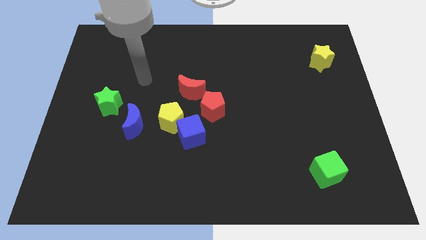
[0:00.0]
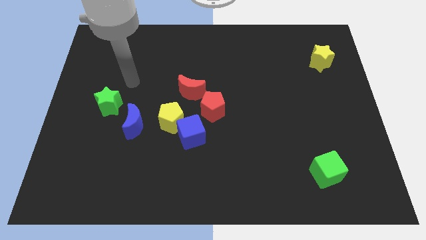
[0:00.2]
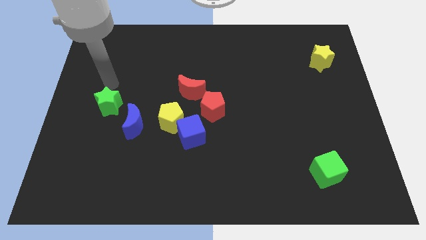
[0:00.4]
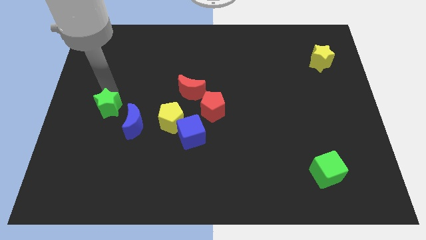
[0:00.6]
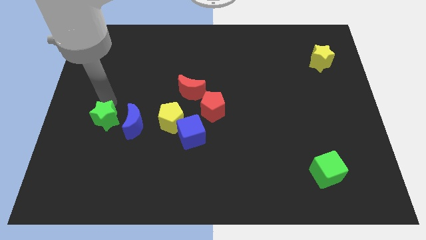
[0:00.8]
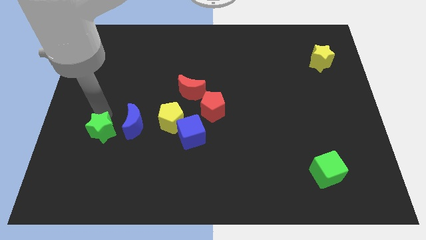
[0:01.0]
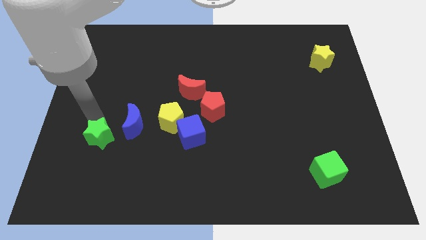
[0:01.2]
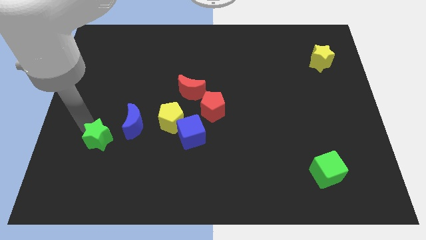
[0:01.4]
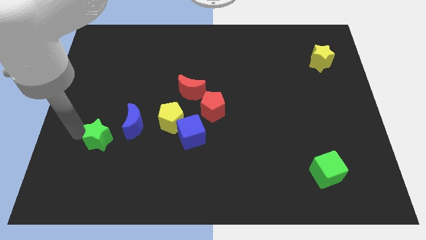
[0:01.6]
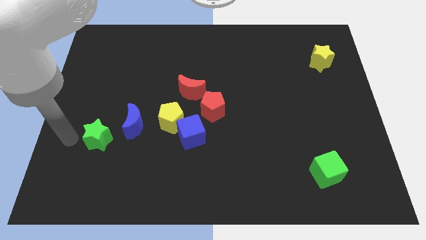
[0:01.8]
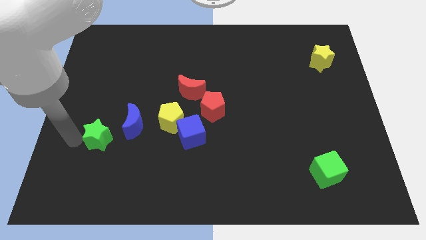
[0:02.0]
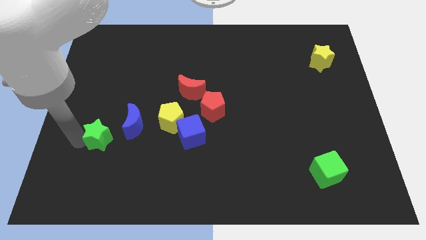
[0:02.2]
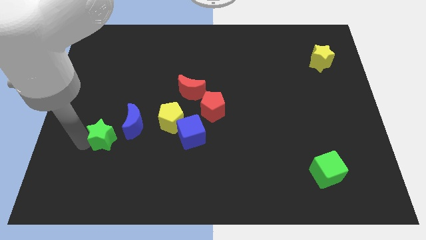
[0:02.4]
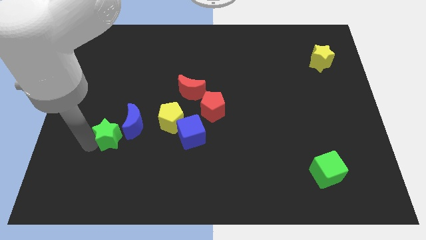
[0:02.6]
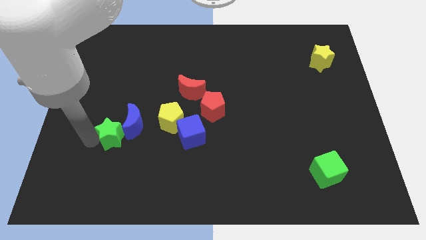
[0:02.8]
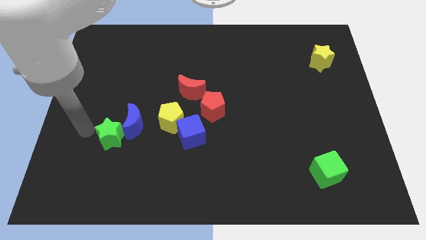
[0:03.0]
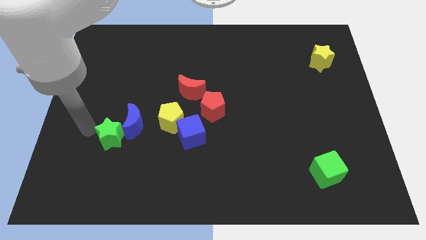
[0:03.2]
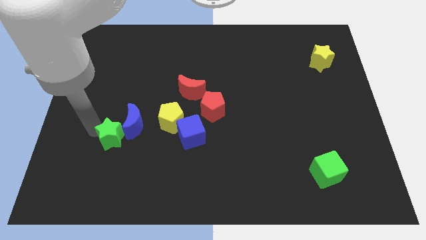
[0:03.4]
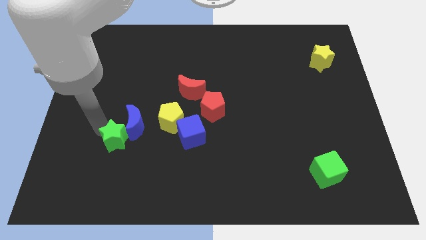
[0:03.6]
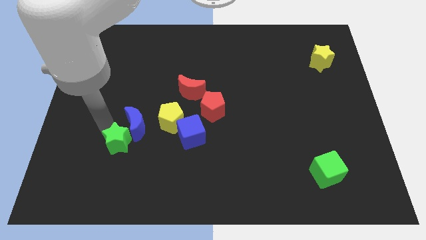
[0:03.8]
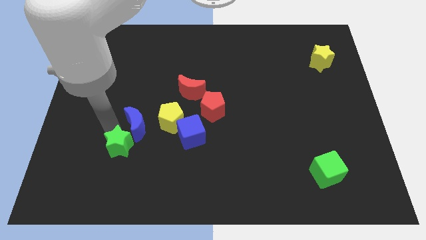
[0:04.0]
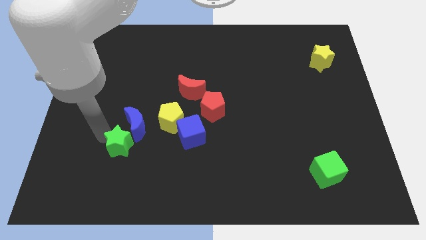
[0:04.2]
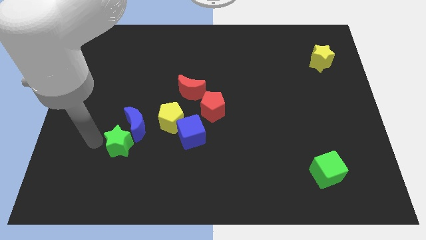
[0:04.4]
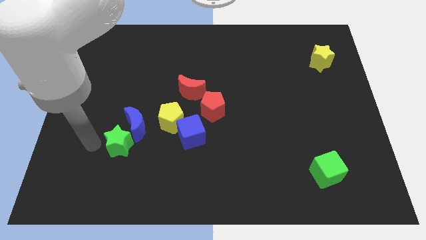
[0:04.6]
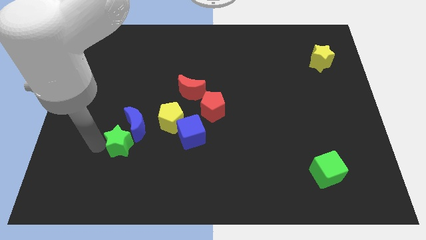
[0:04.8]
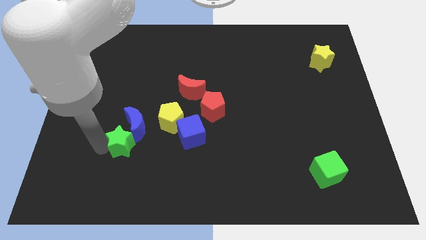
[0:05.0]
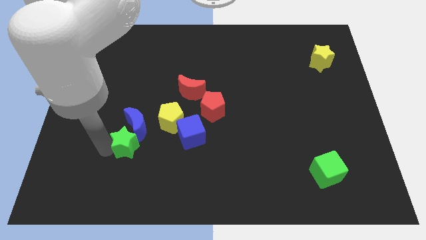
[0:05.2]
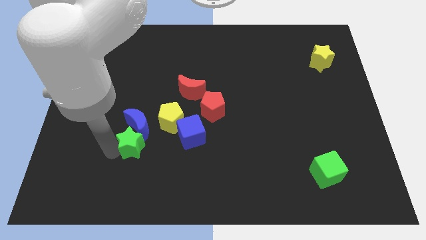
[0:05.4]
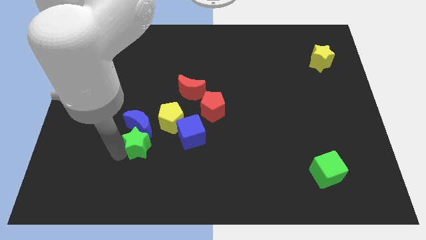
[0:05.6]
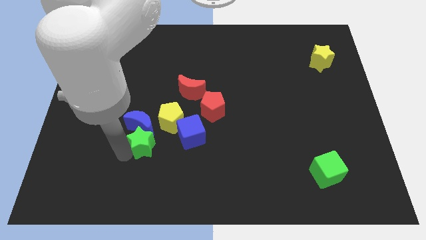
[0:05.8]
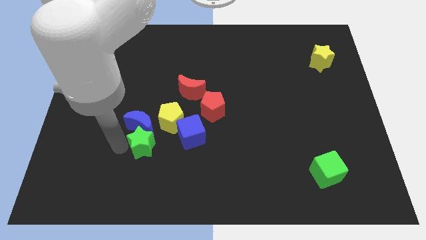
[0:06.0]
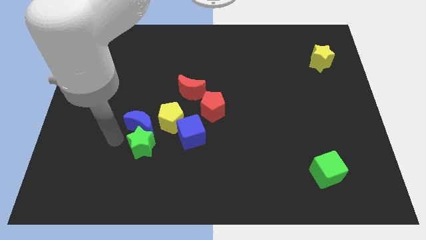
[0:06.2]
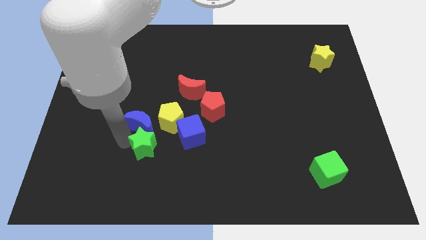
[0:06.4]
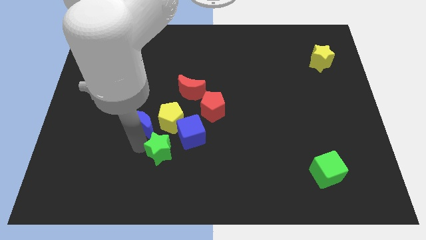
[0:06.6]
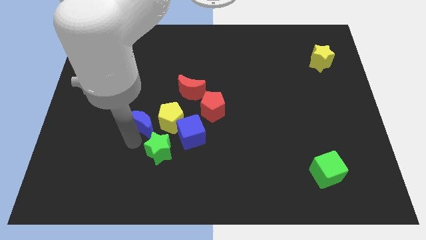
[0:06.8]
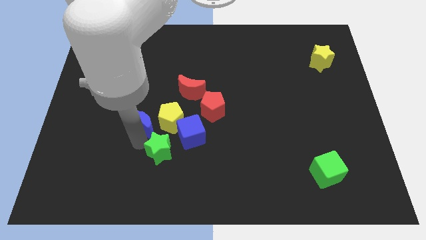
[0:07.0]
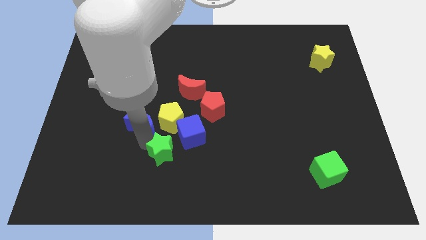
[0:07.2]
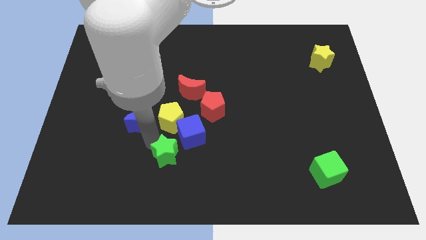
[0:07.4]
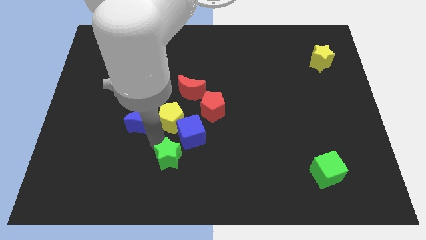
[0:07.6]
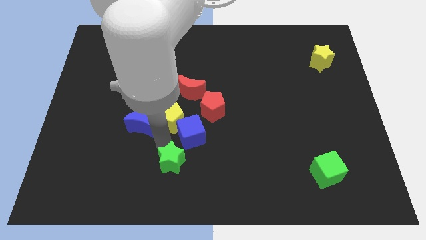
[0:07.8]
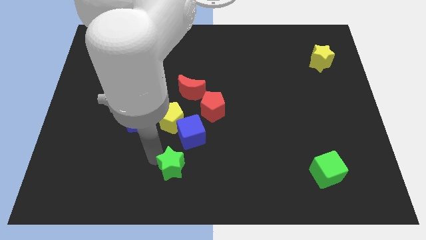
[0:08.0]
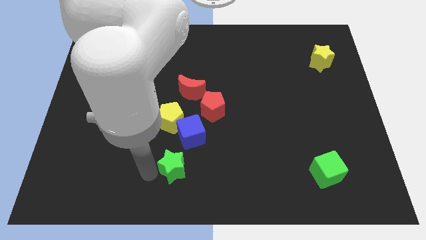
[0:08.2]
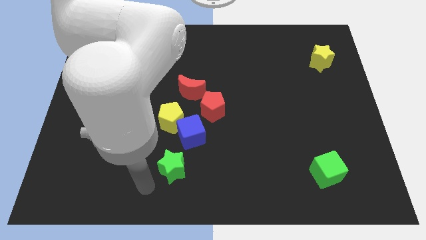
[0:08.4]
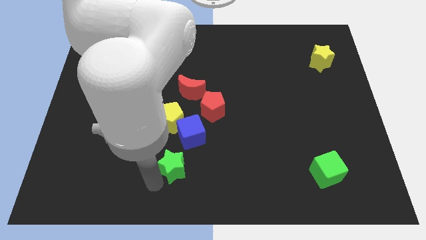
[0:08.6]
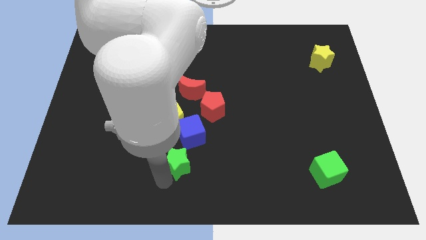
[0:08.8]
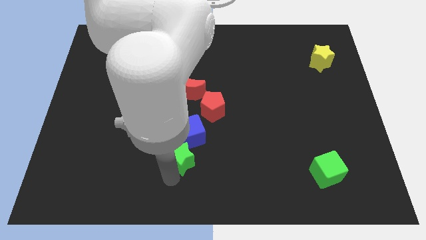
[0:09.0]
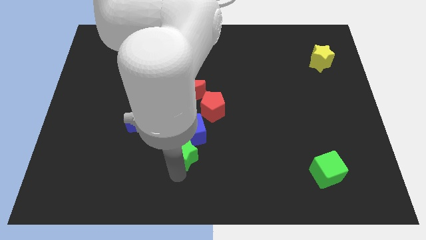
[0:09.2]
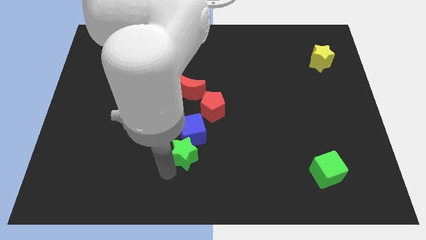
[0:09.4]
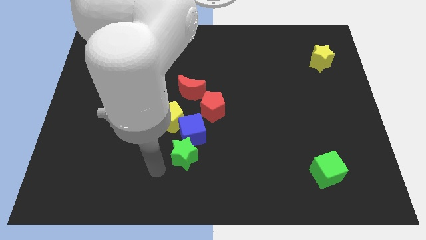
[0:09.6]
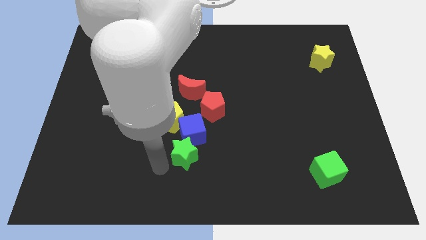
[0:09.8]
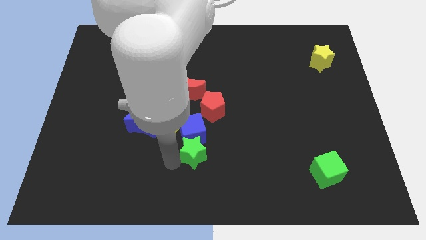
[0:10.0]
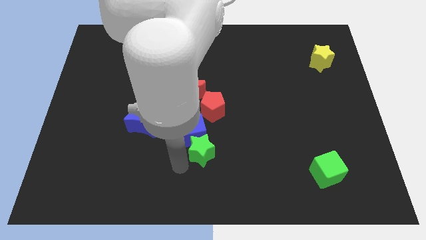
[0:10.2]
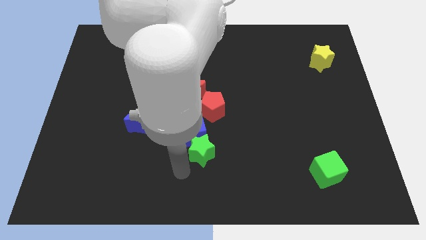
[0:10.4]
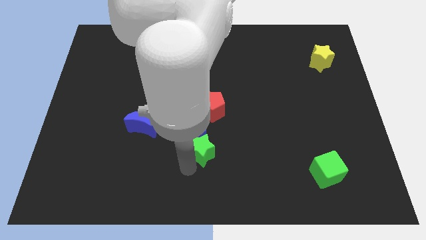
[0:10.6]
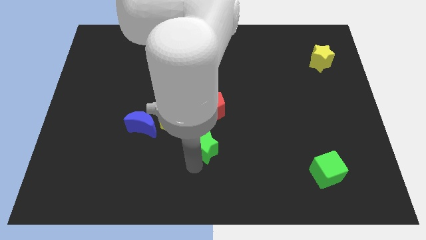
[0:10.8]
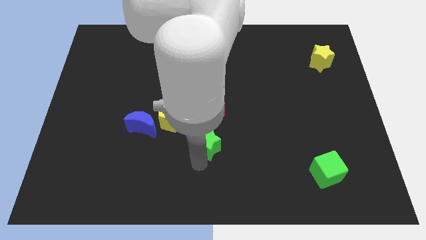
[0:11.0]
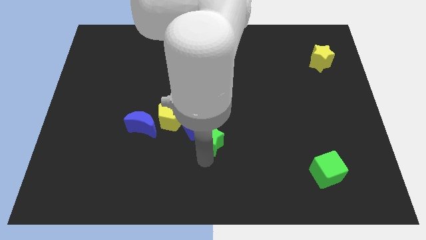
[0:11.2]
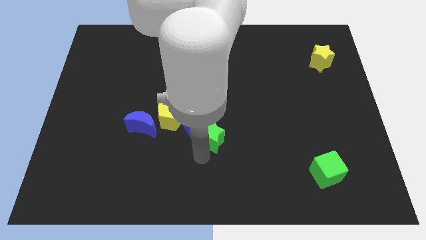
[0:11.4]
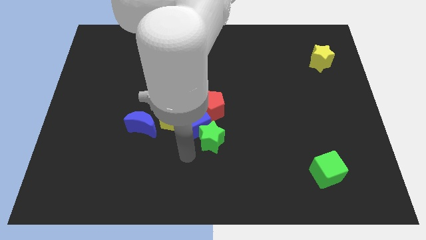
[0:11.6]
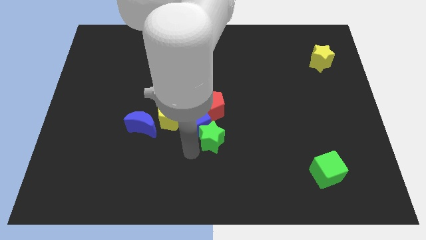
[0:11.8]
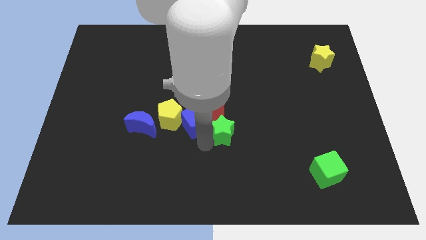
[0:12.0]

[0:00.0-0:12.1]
push the green star diagonally down and to the right of the red pentagon

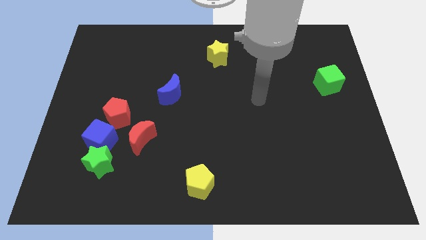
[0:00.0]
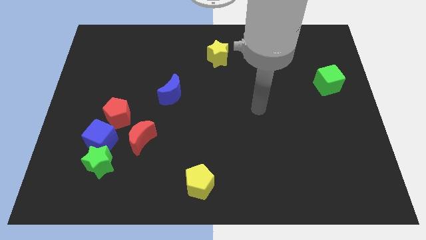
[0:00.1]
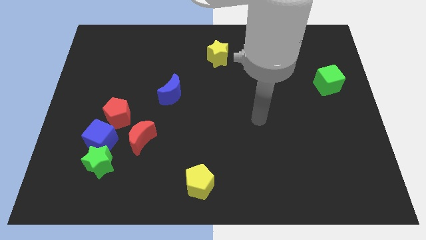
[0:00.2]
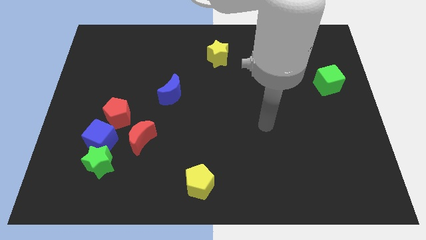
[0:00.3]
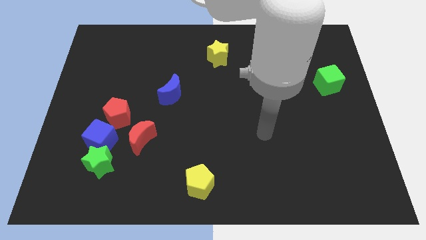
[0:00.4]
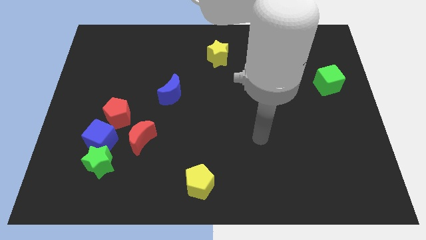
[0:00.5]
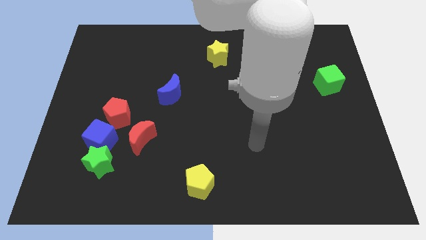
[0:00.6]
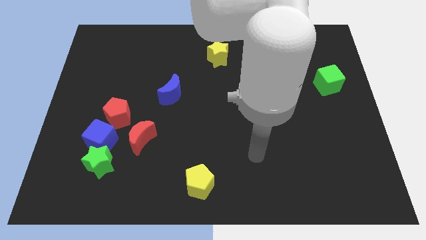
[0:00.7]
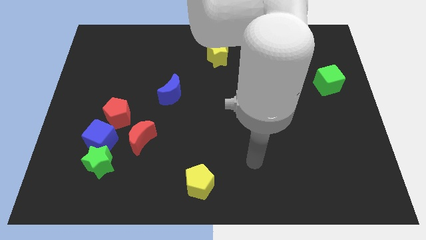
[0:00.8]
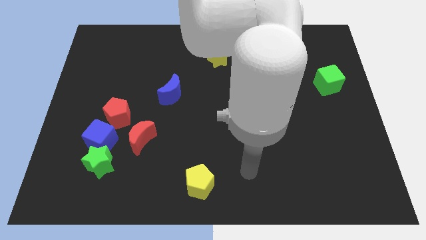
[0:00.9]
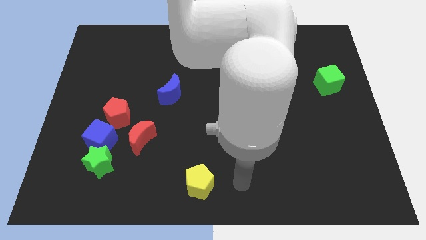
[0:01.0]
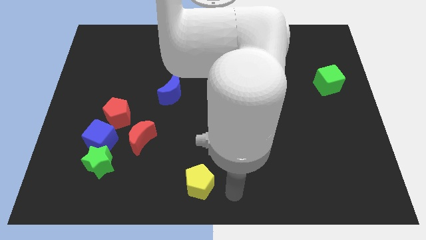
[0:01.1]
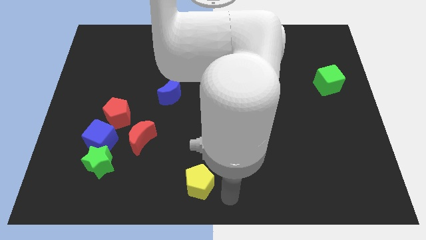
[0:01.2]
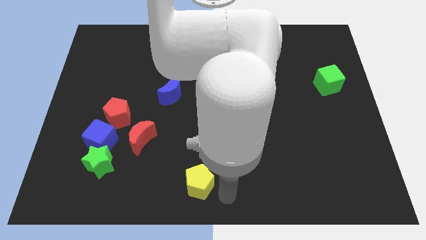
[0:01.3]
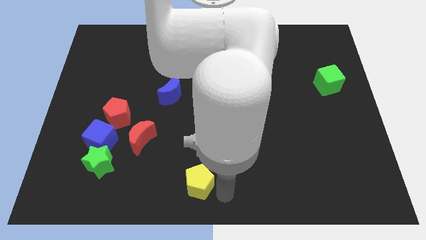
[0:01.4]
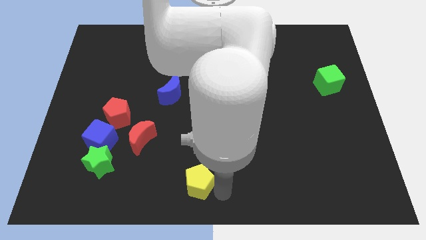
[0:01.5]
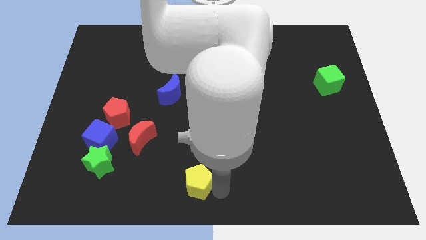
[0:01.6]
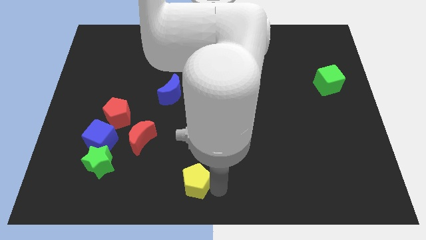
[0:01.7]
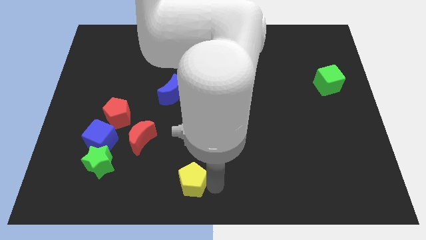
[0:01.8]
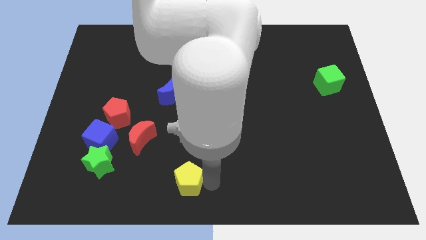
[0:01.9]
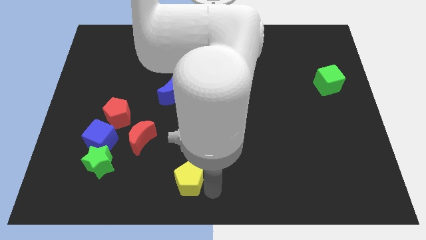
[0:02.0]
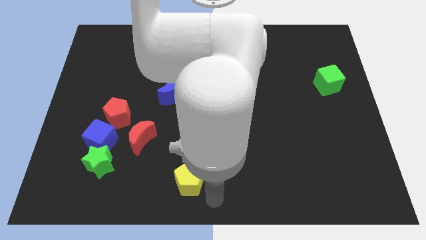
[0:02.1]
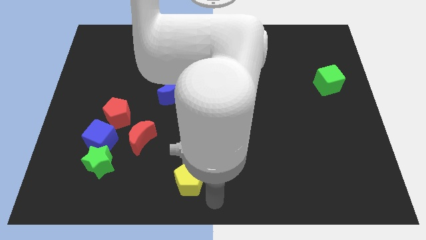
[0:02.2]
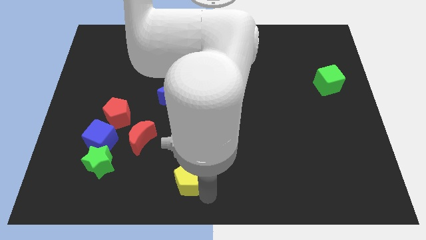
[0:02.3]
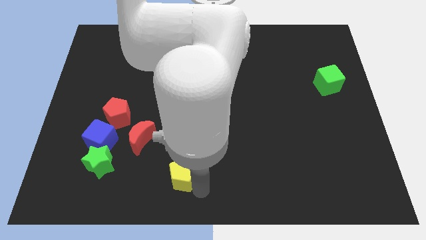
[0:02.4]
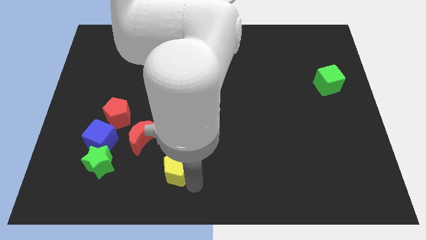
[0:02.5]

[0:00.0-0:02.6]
put the yellow pentagon to the bottom right side of the red moon
